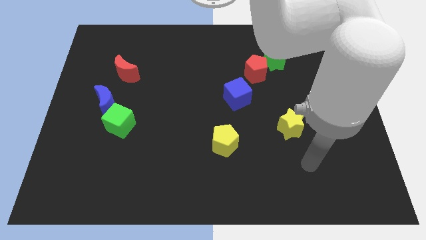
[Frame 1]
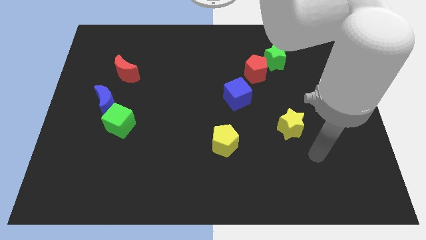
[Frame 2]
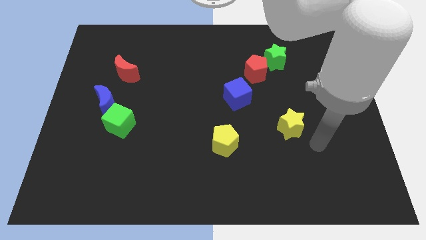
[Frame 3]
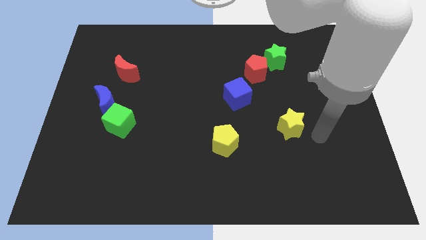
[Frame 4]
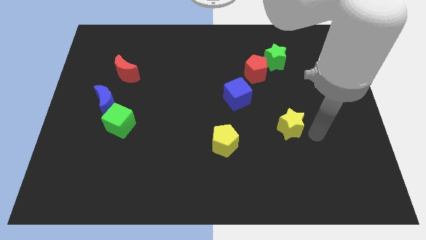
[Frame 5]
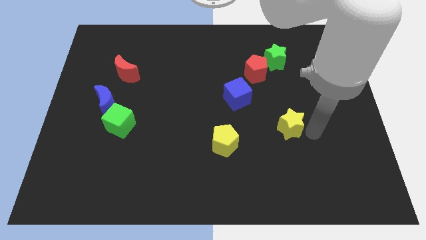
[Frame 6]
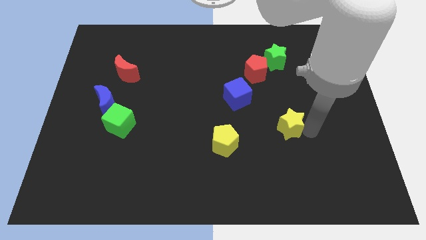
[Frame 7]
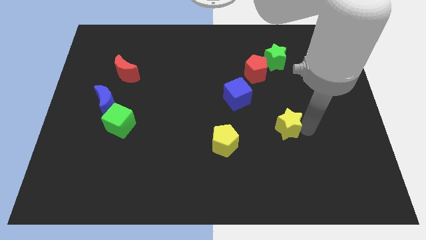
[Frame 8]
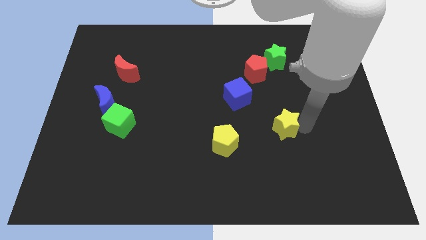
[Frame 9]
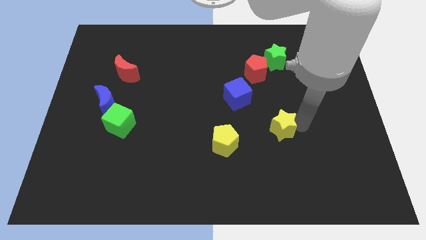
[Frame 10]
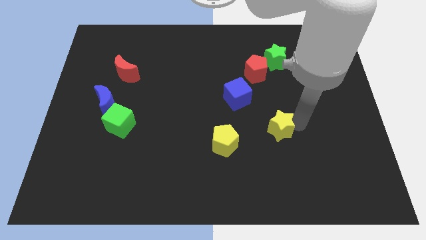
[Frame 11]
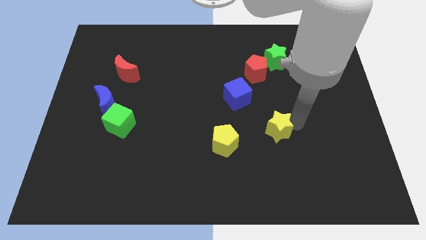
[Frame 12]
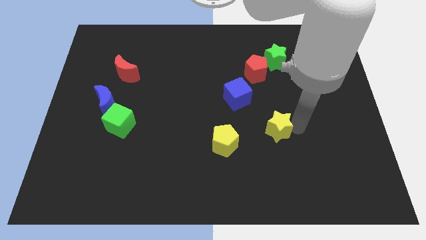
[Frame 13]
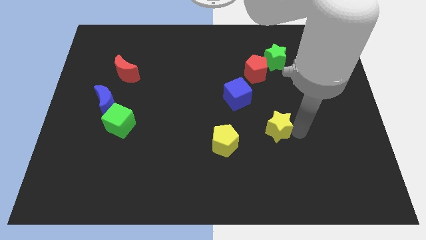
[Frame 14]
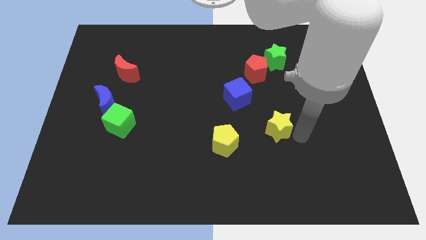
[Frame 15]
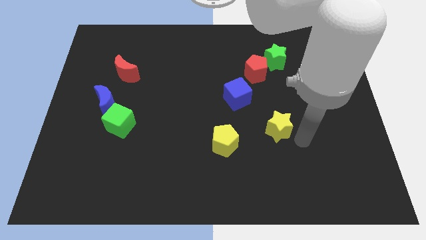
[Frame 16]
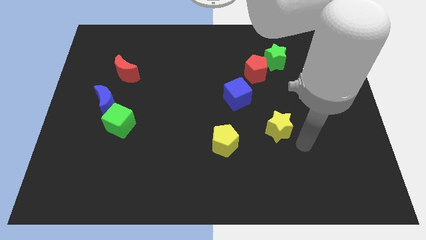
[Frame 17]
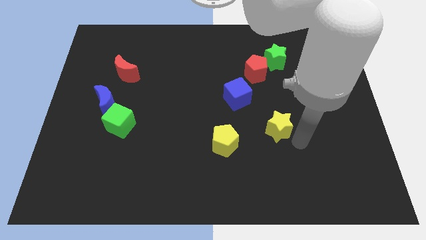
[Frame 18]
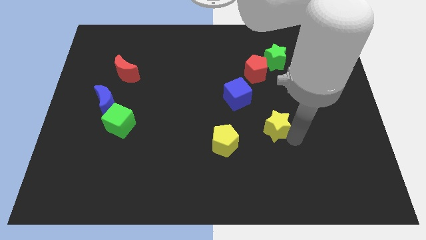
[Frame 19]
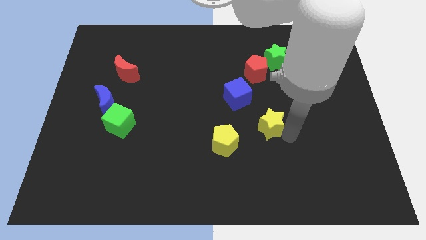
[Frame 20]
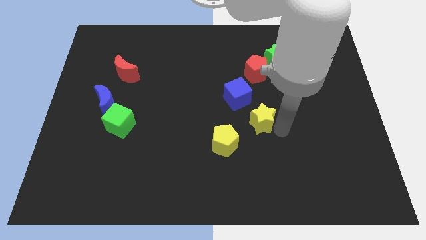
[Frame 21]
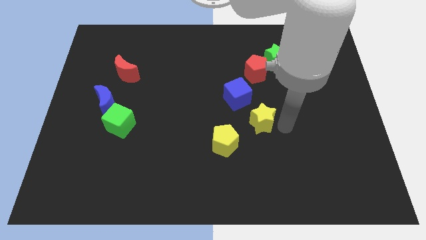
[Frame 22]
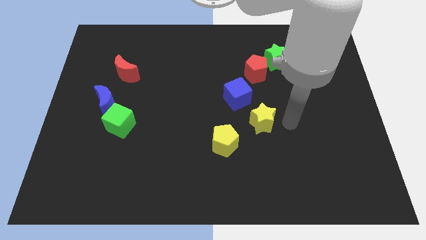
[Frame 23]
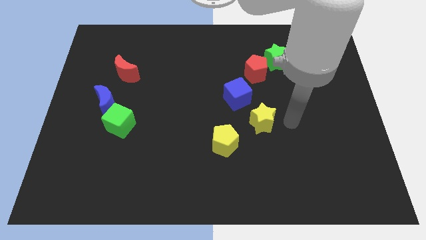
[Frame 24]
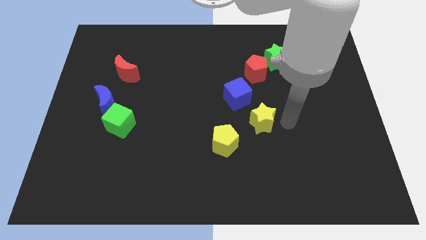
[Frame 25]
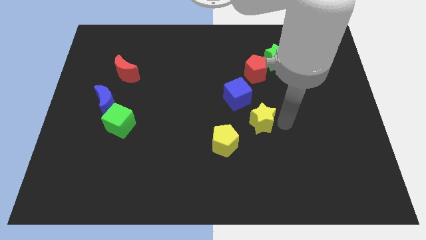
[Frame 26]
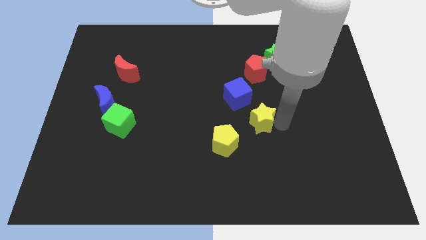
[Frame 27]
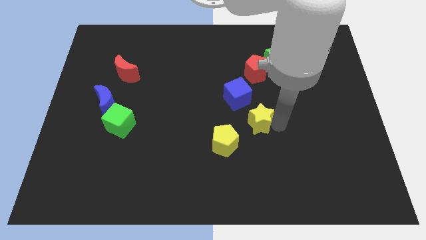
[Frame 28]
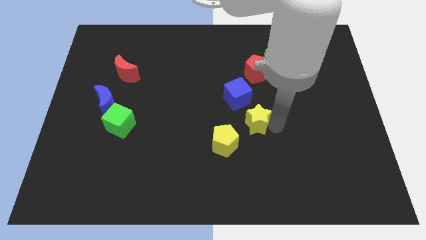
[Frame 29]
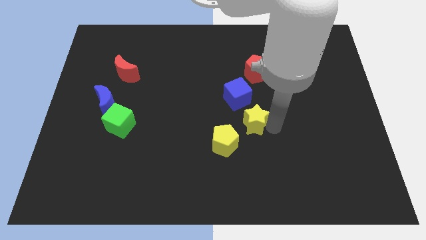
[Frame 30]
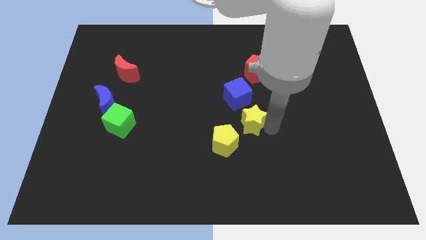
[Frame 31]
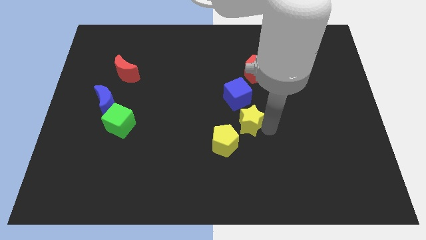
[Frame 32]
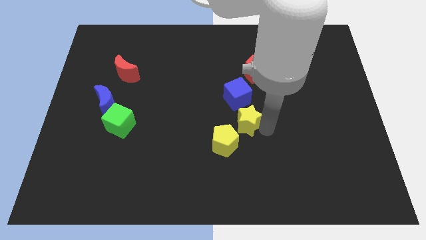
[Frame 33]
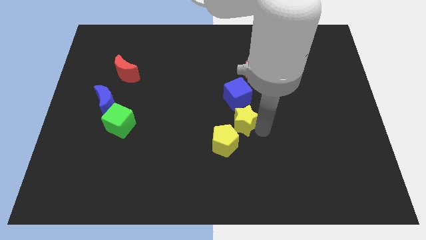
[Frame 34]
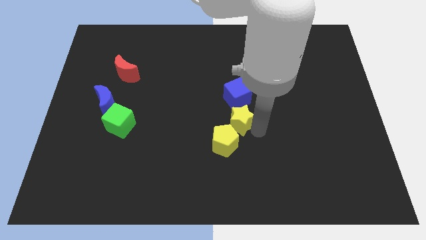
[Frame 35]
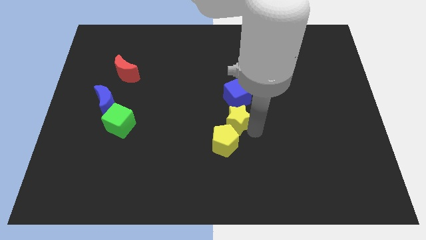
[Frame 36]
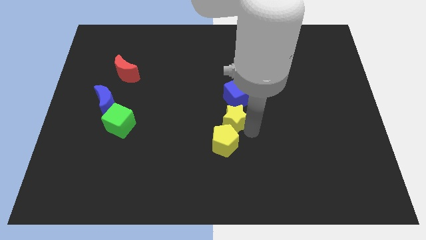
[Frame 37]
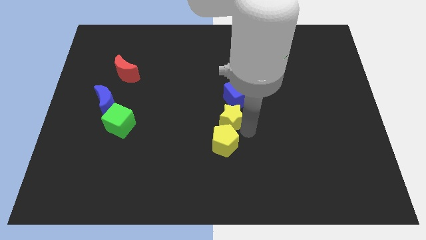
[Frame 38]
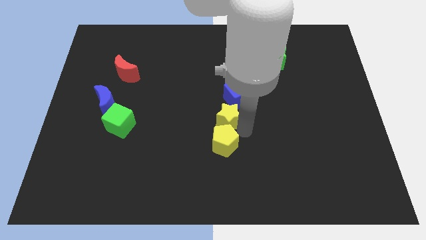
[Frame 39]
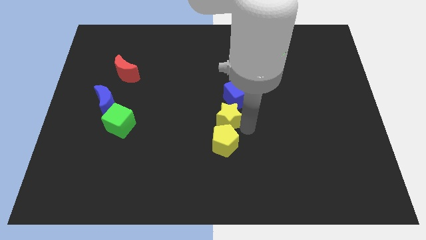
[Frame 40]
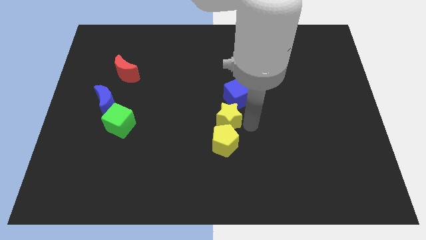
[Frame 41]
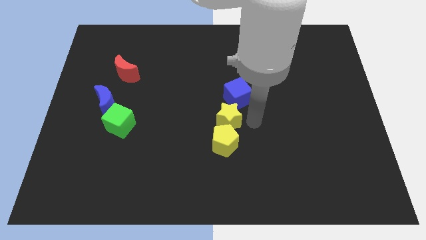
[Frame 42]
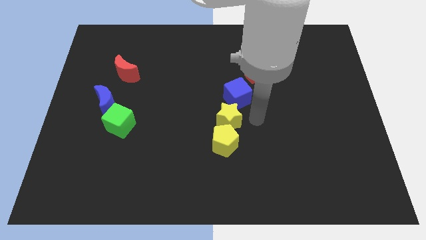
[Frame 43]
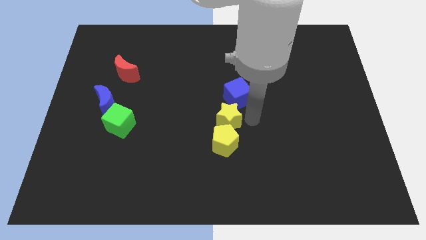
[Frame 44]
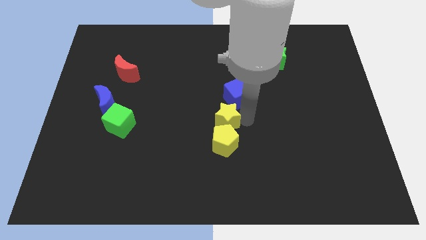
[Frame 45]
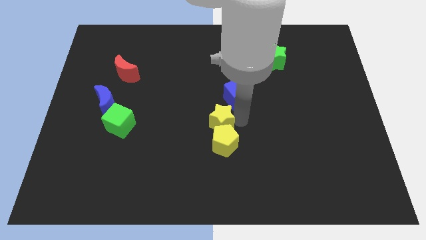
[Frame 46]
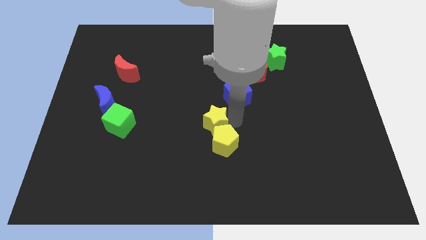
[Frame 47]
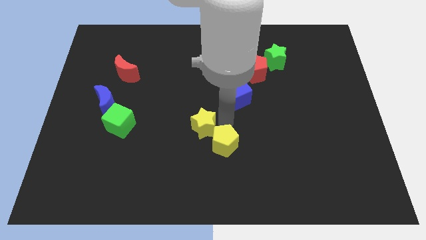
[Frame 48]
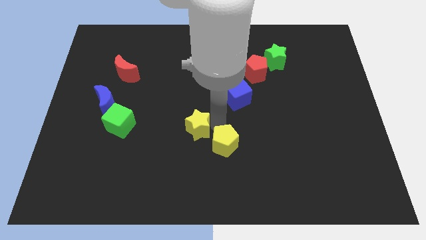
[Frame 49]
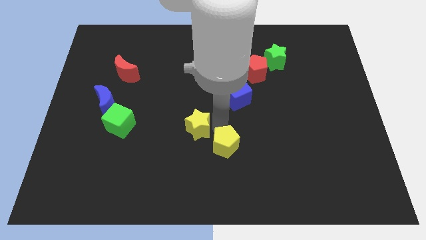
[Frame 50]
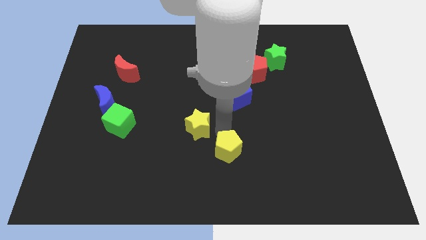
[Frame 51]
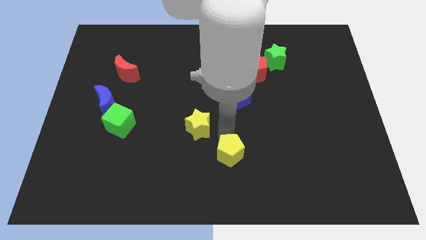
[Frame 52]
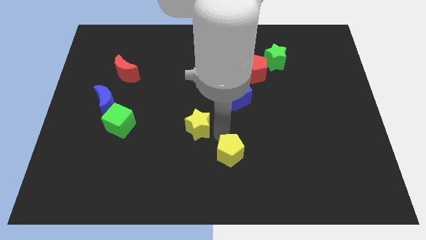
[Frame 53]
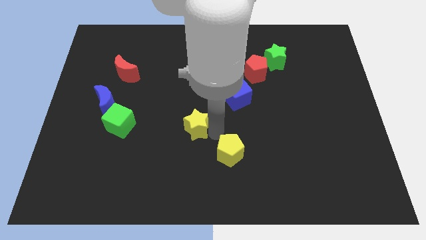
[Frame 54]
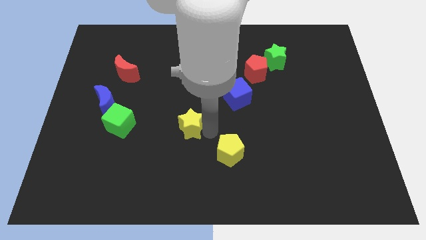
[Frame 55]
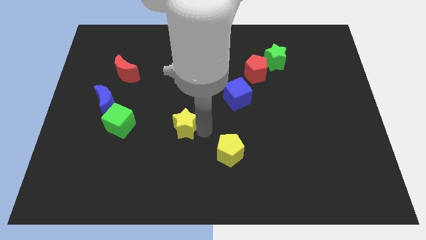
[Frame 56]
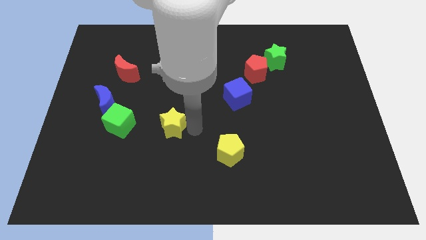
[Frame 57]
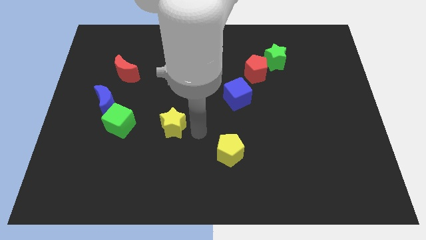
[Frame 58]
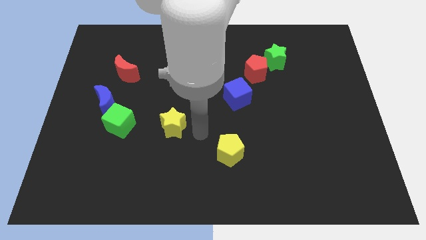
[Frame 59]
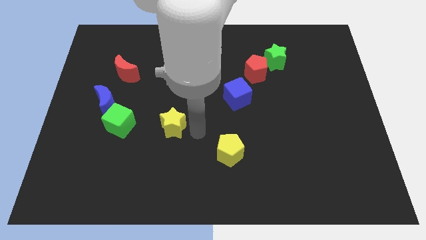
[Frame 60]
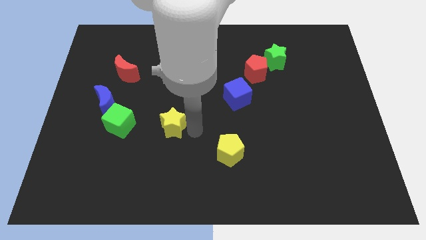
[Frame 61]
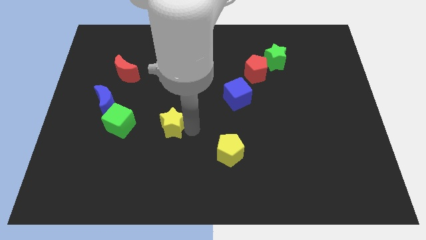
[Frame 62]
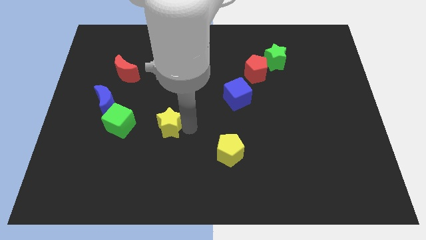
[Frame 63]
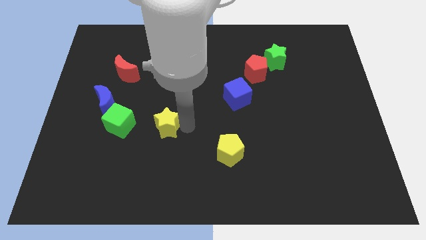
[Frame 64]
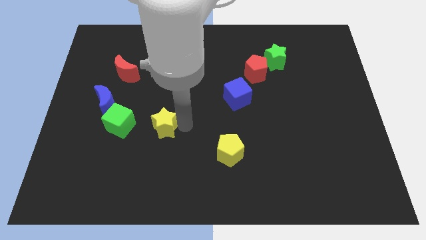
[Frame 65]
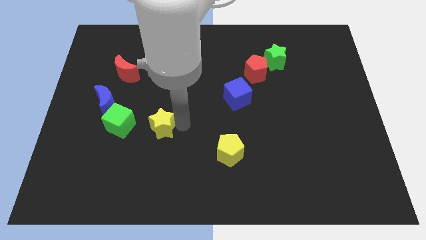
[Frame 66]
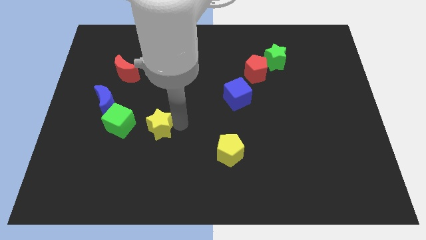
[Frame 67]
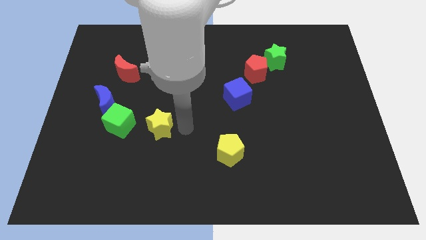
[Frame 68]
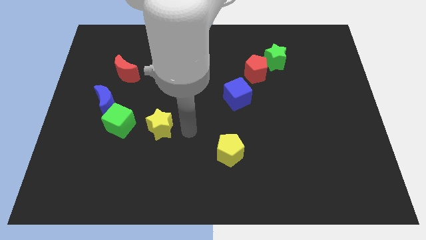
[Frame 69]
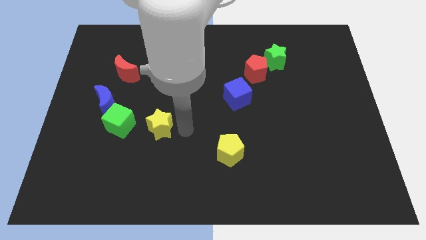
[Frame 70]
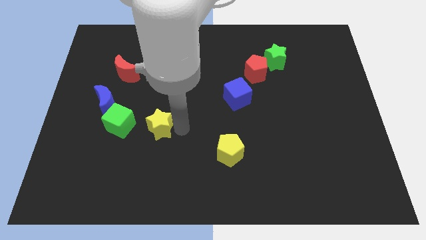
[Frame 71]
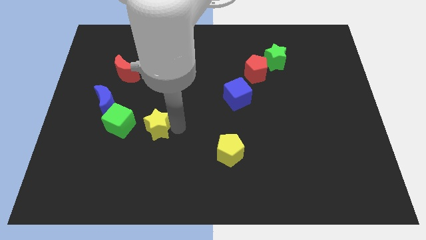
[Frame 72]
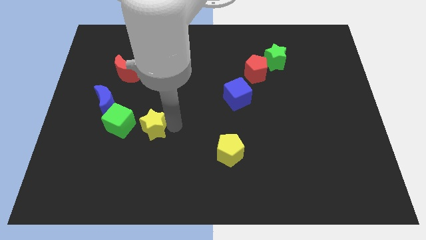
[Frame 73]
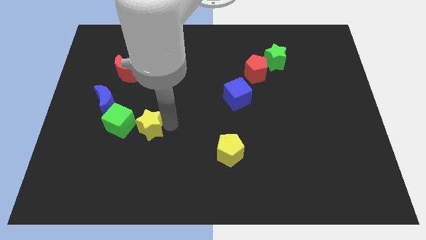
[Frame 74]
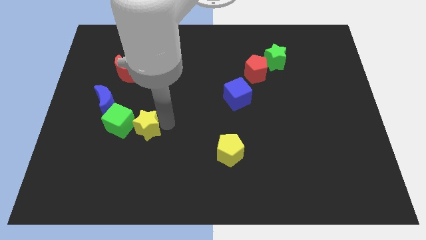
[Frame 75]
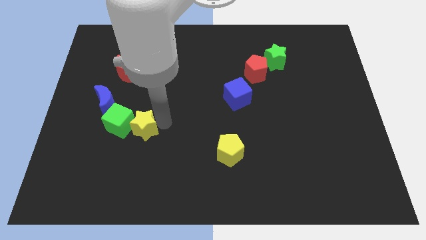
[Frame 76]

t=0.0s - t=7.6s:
put the yellow star close to the green cube
